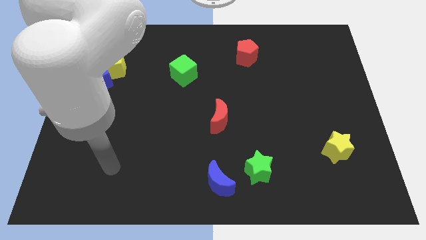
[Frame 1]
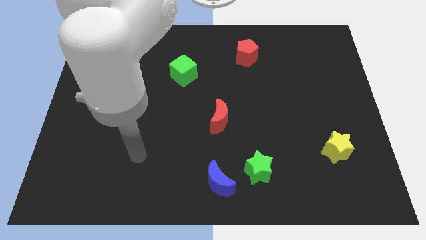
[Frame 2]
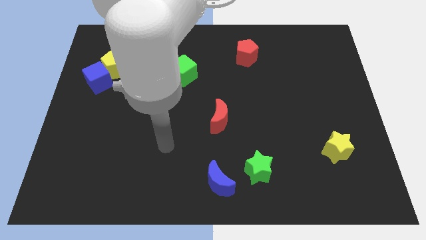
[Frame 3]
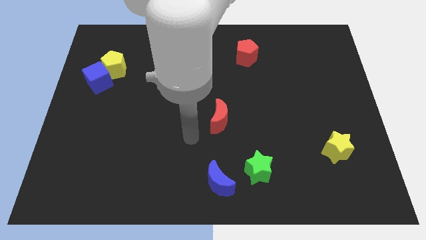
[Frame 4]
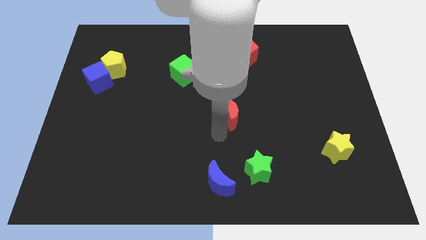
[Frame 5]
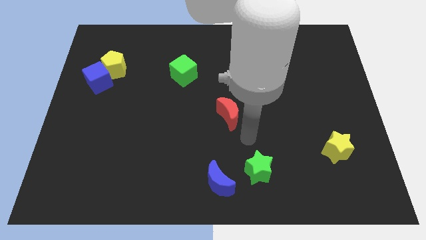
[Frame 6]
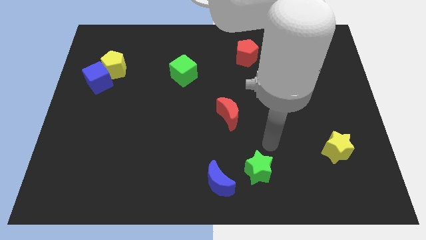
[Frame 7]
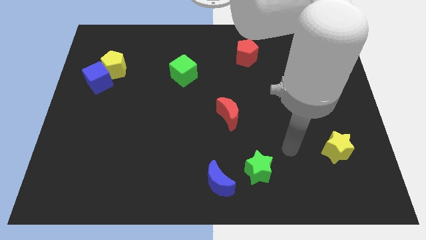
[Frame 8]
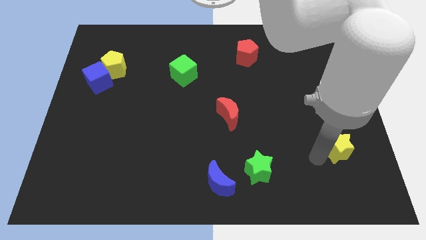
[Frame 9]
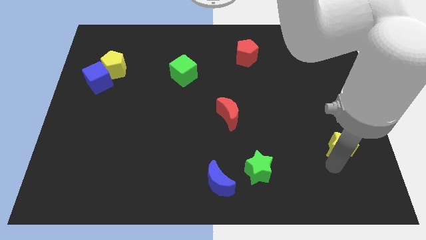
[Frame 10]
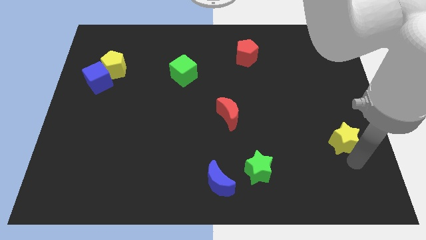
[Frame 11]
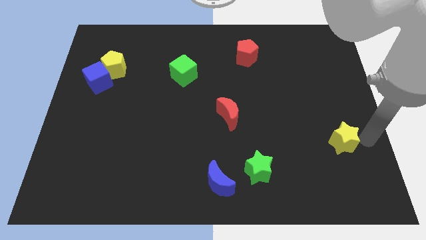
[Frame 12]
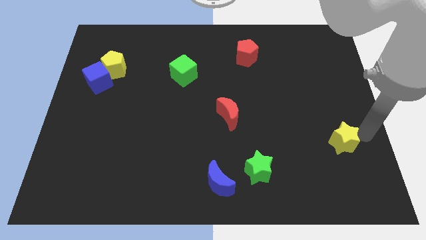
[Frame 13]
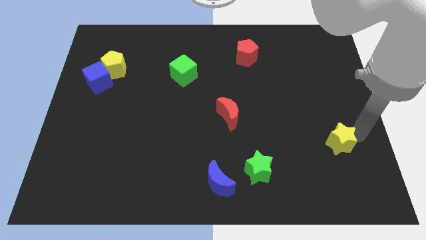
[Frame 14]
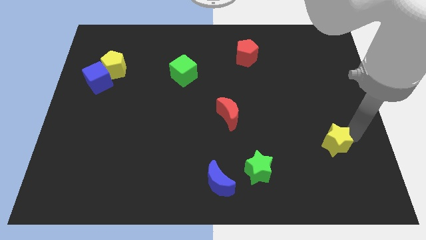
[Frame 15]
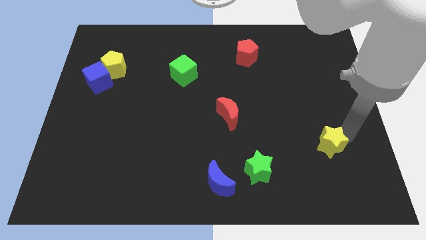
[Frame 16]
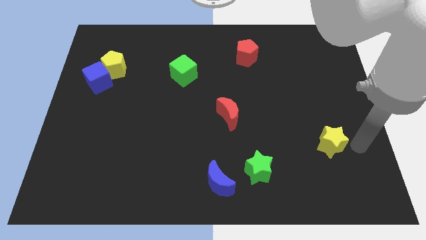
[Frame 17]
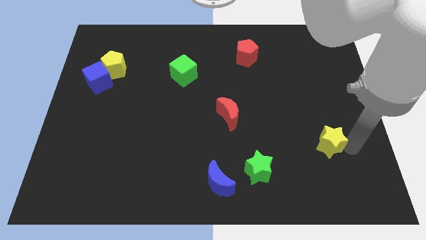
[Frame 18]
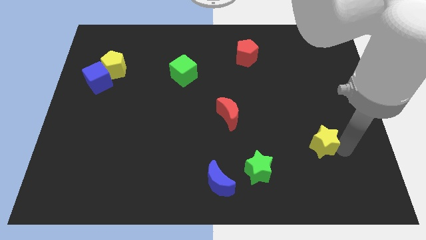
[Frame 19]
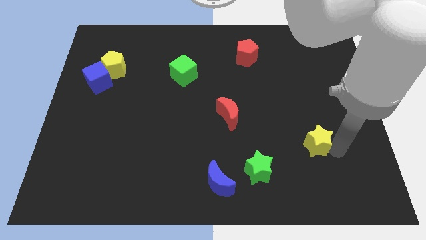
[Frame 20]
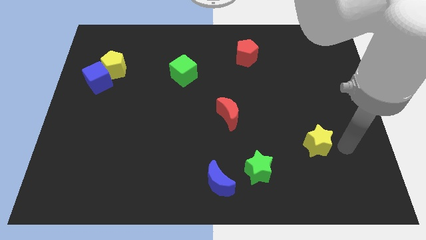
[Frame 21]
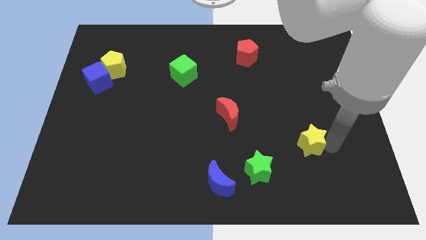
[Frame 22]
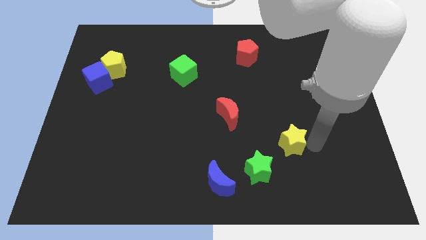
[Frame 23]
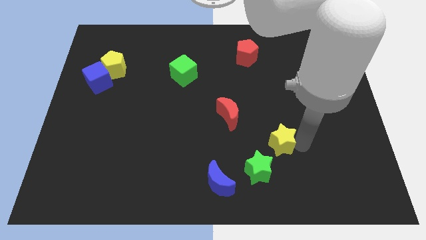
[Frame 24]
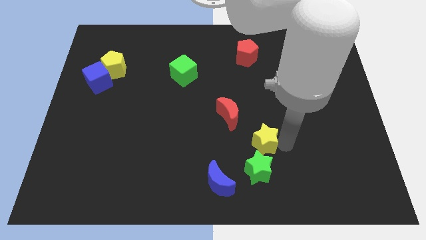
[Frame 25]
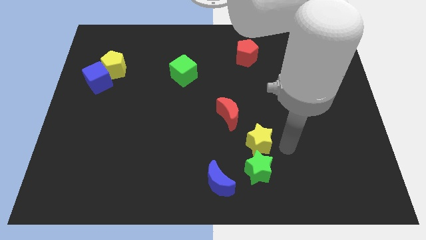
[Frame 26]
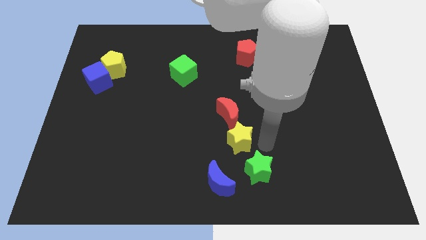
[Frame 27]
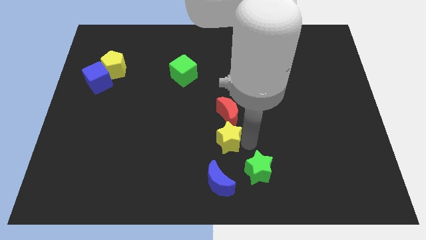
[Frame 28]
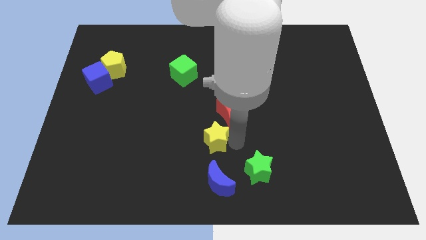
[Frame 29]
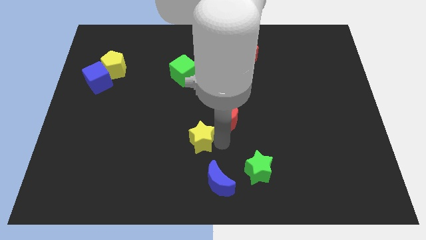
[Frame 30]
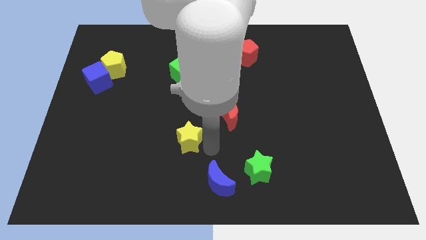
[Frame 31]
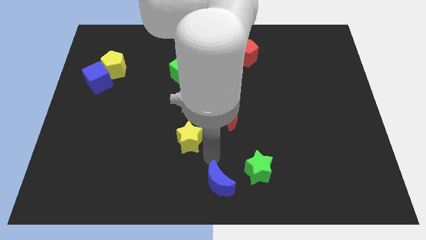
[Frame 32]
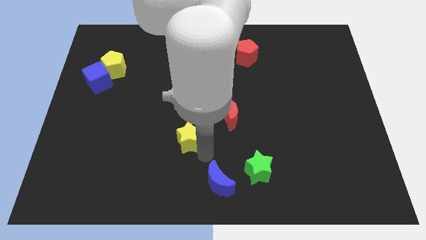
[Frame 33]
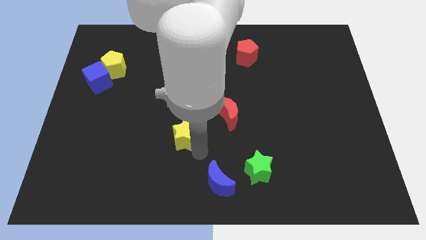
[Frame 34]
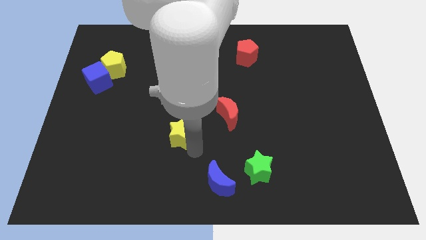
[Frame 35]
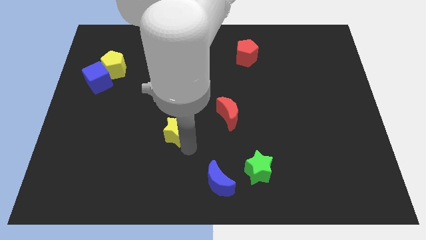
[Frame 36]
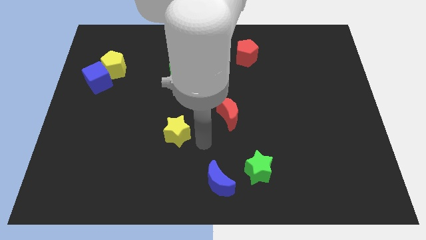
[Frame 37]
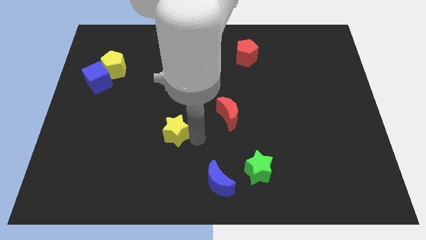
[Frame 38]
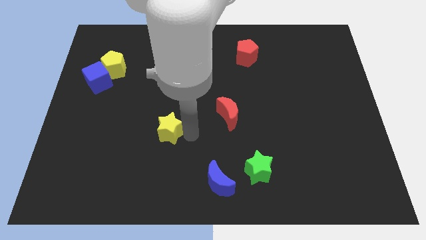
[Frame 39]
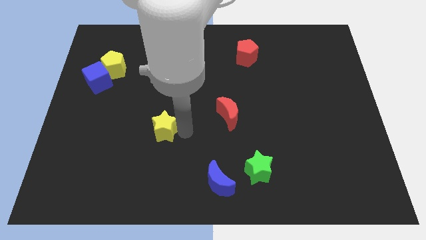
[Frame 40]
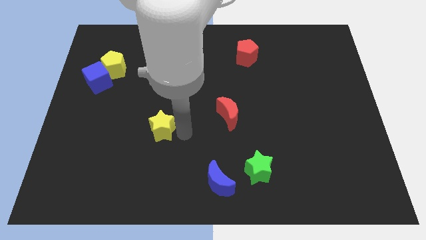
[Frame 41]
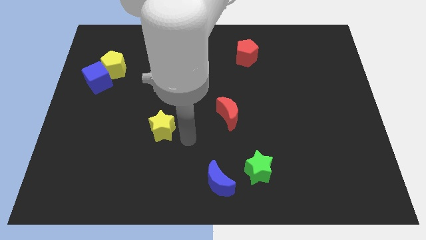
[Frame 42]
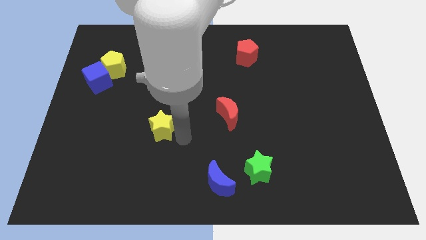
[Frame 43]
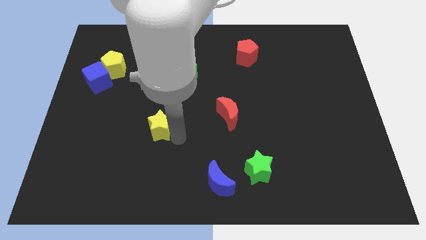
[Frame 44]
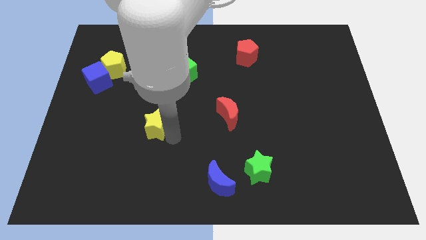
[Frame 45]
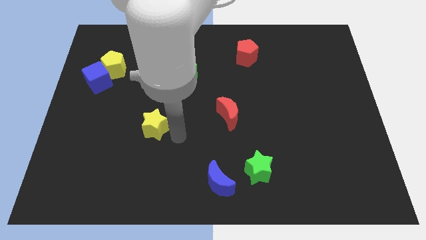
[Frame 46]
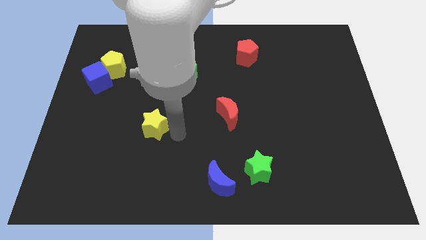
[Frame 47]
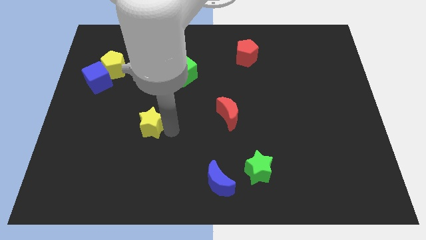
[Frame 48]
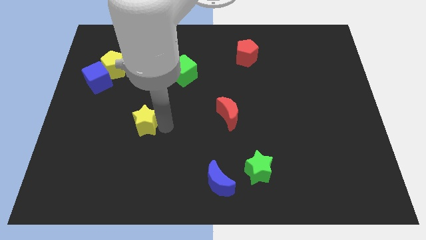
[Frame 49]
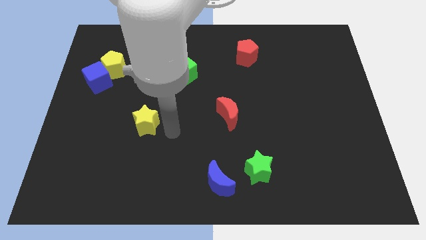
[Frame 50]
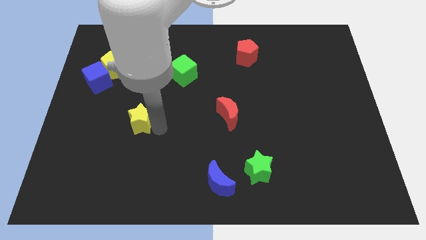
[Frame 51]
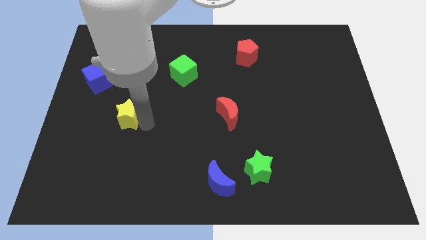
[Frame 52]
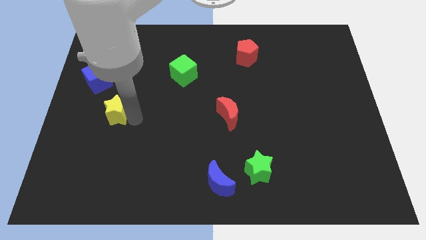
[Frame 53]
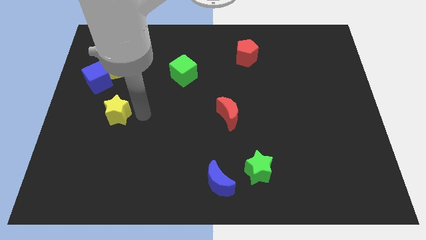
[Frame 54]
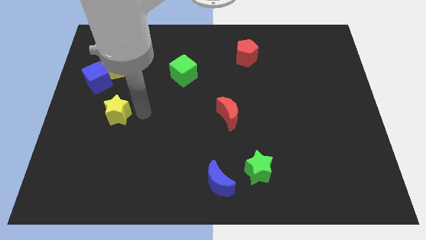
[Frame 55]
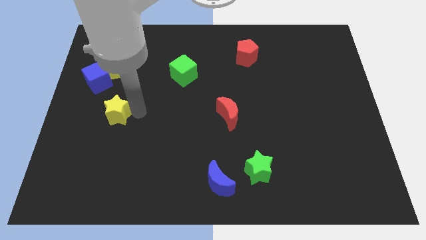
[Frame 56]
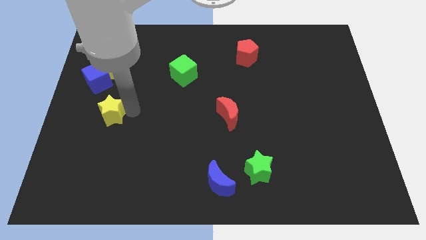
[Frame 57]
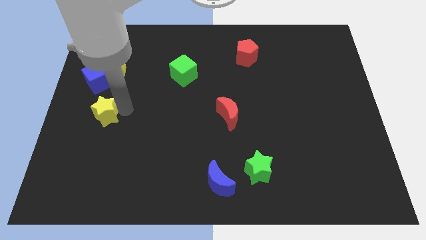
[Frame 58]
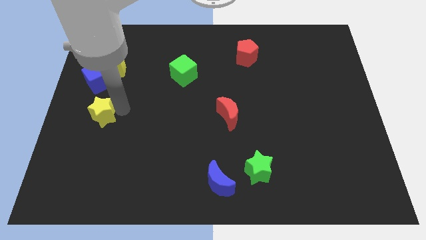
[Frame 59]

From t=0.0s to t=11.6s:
push the yellow star to the left side of the board
